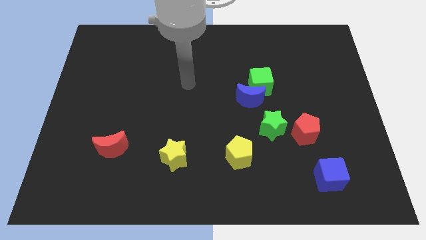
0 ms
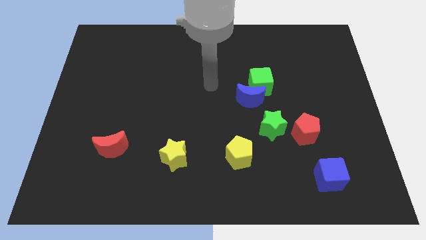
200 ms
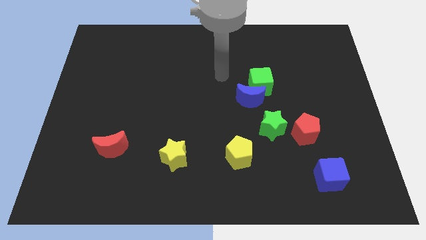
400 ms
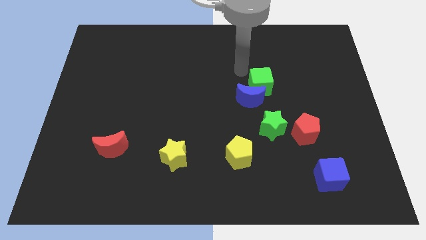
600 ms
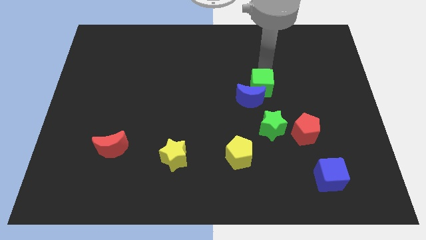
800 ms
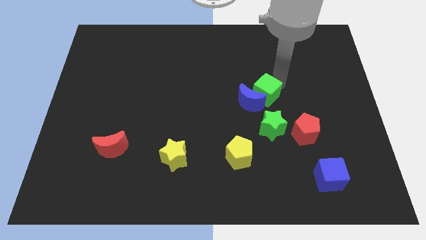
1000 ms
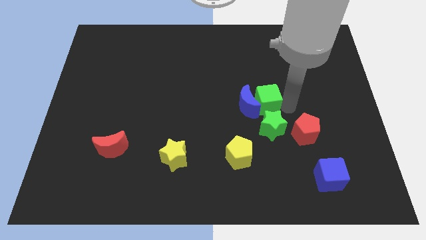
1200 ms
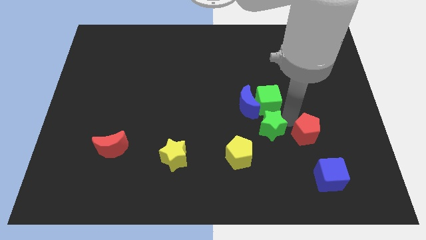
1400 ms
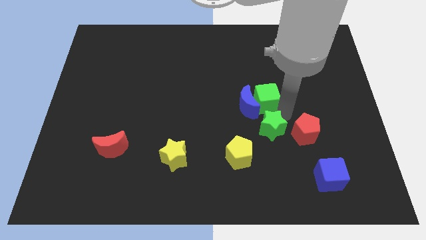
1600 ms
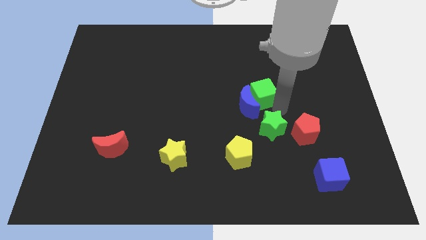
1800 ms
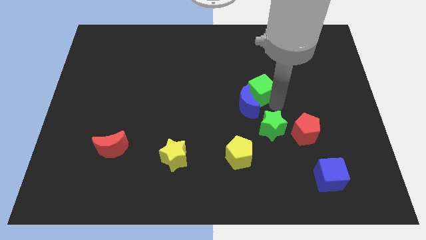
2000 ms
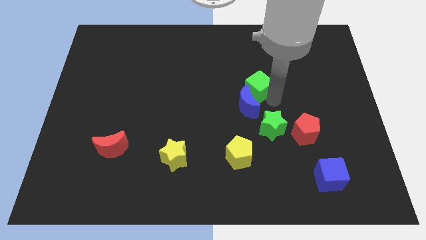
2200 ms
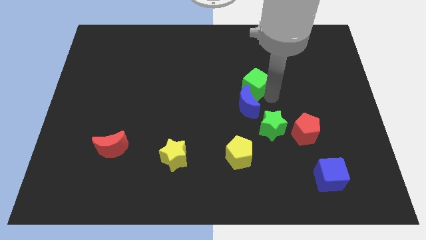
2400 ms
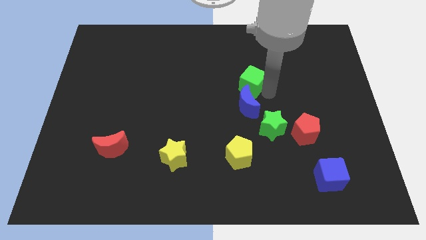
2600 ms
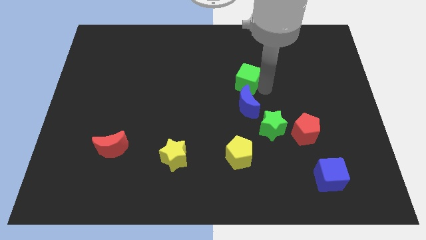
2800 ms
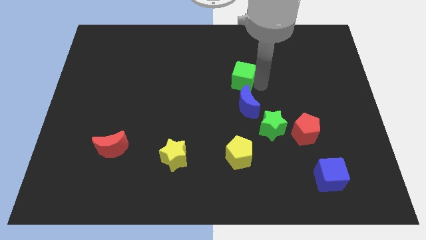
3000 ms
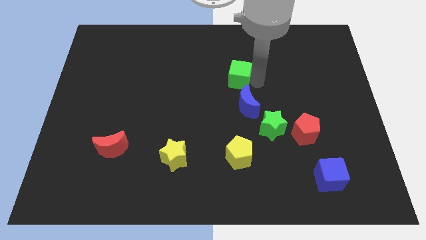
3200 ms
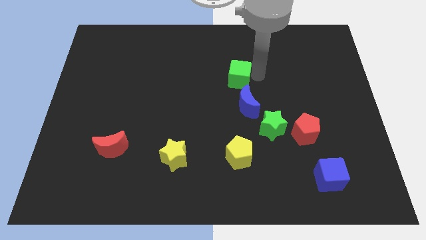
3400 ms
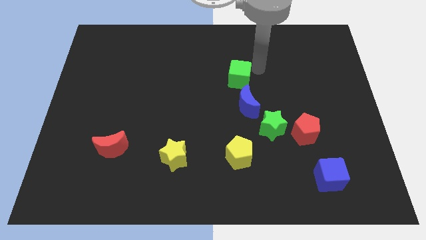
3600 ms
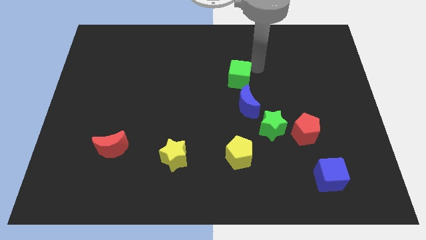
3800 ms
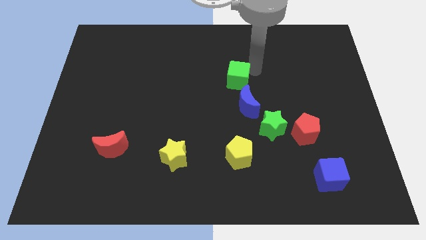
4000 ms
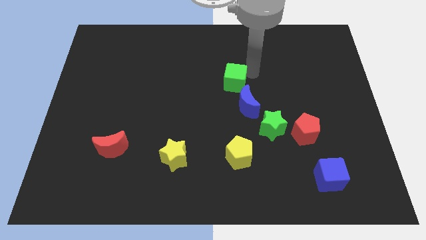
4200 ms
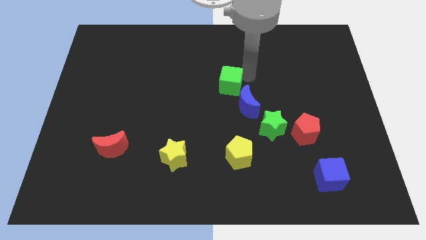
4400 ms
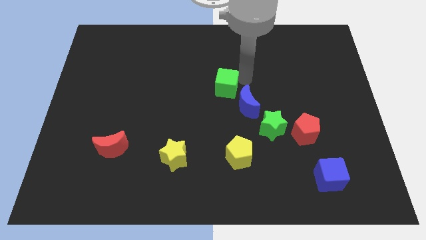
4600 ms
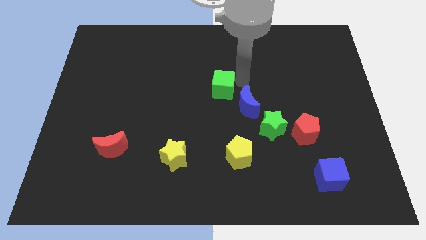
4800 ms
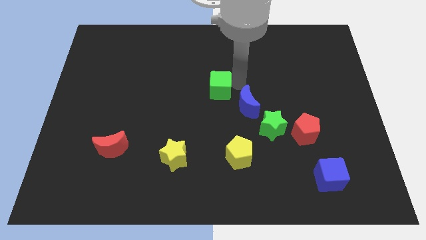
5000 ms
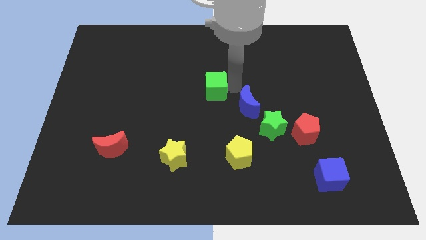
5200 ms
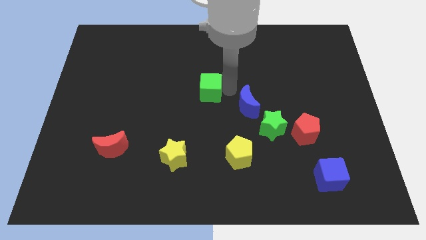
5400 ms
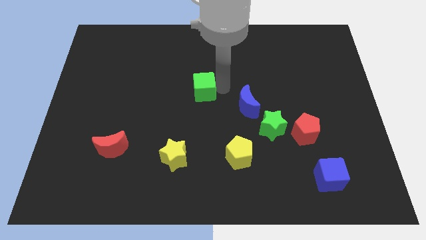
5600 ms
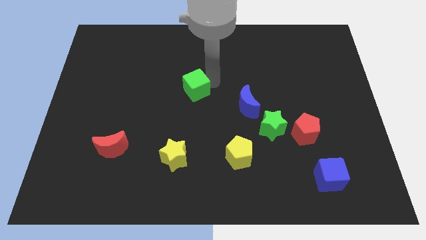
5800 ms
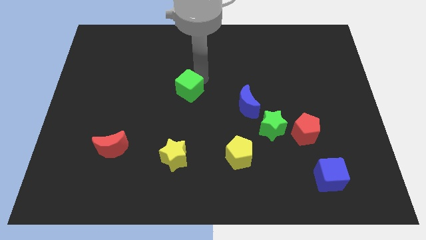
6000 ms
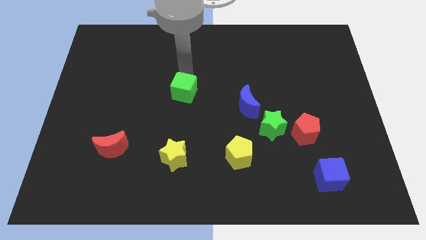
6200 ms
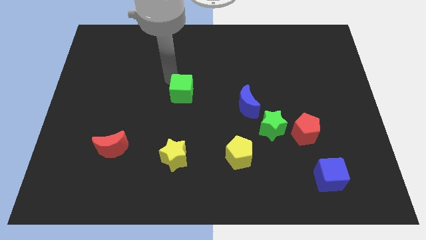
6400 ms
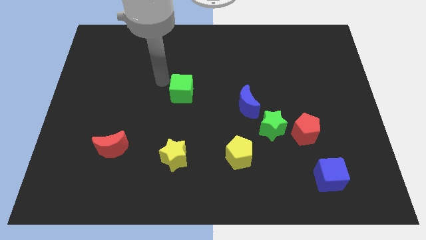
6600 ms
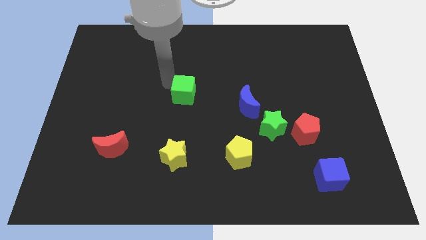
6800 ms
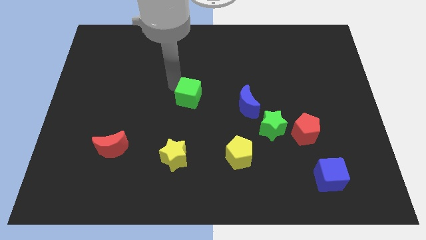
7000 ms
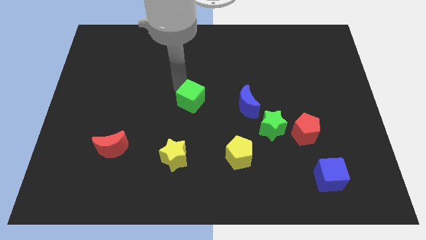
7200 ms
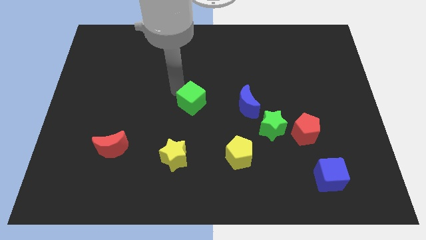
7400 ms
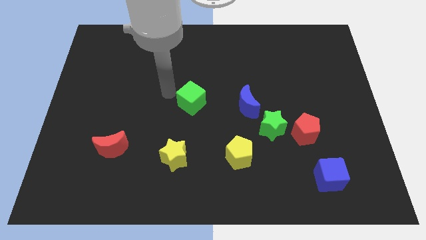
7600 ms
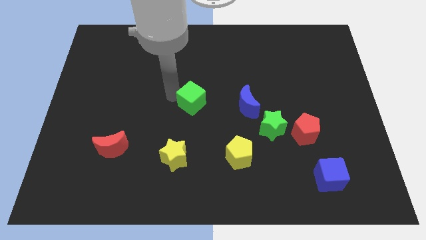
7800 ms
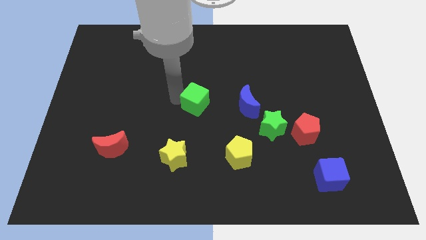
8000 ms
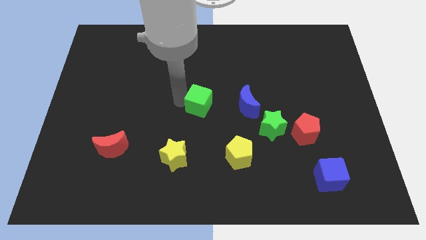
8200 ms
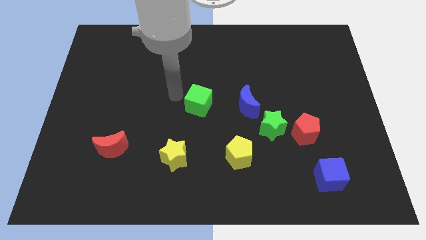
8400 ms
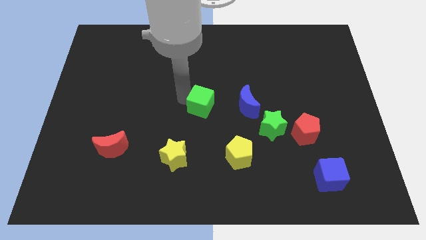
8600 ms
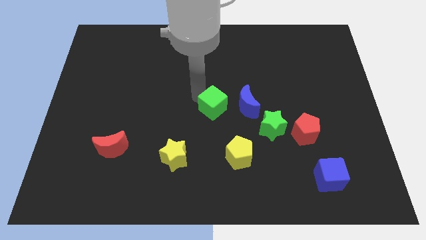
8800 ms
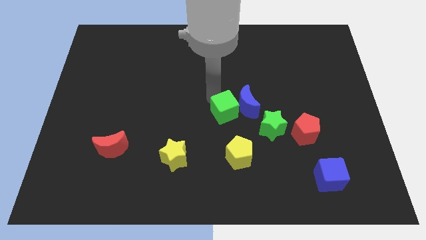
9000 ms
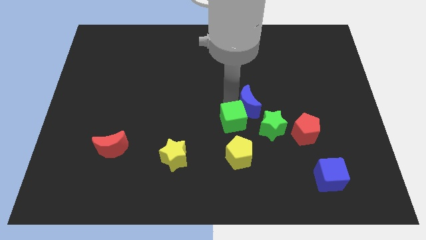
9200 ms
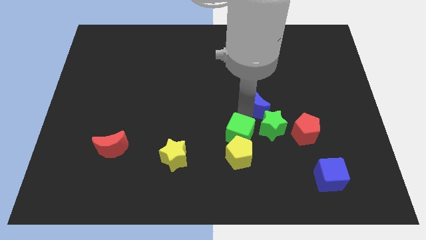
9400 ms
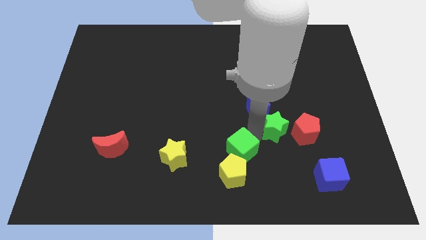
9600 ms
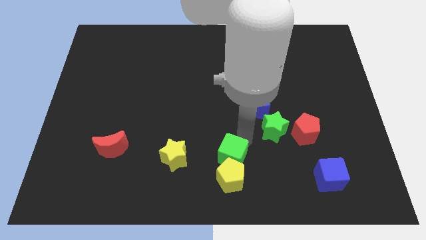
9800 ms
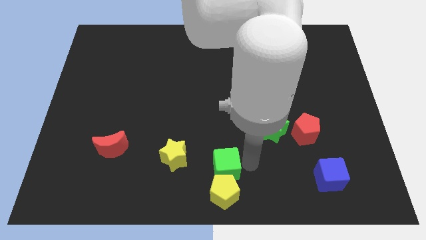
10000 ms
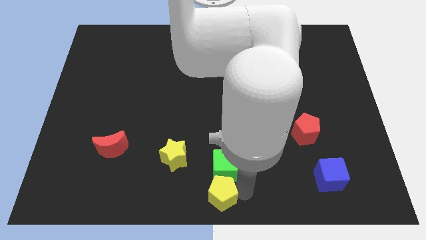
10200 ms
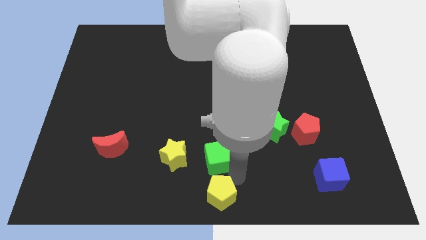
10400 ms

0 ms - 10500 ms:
push the green cube down and to the left

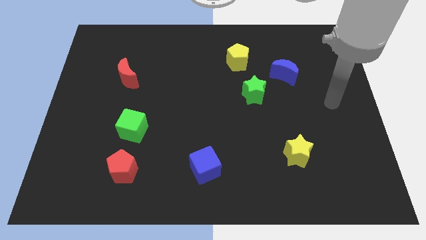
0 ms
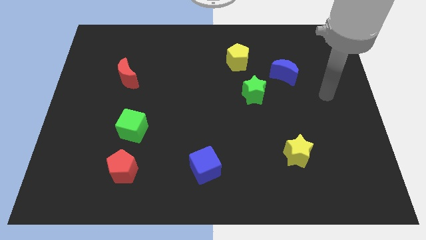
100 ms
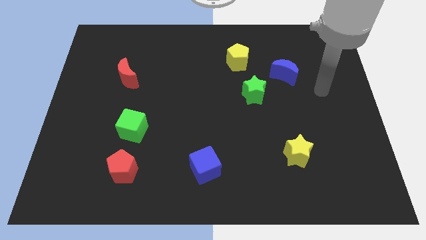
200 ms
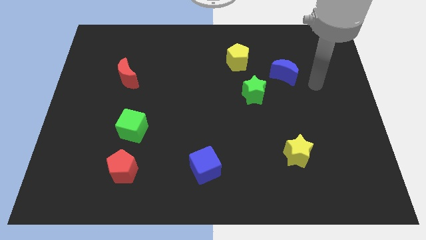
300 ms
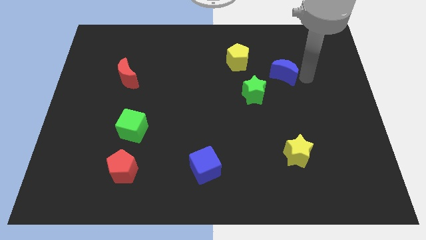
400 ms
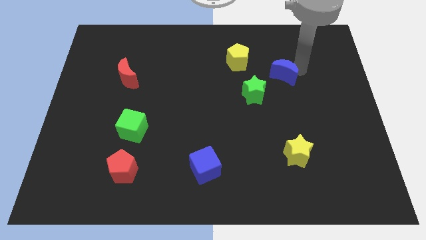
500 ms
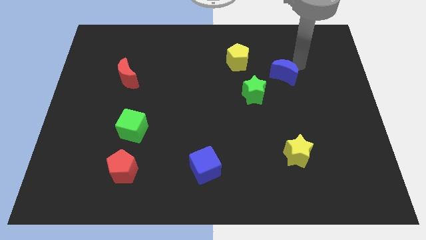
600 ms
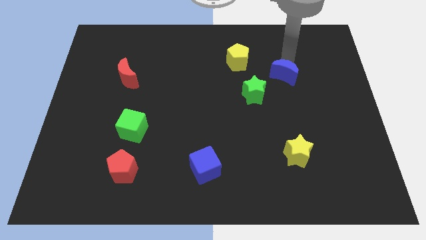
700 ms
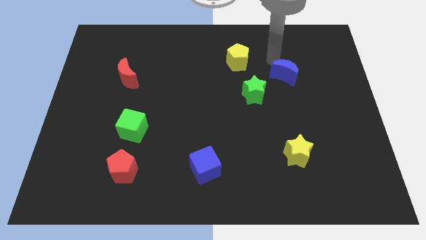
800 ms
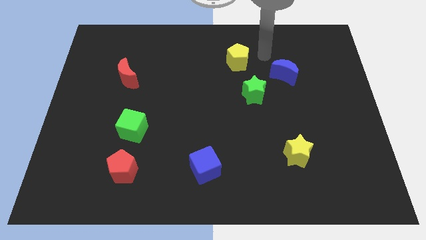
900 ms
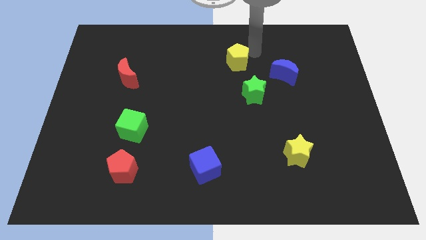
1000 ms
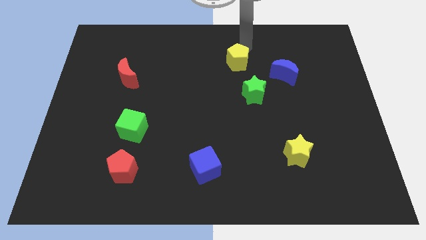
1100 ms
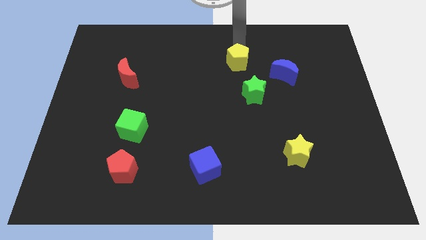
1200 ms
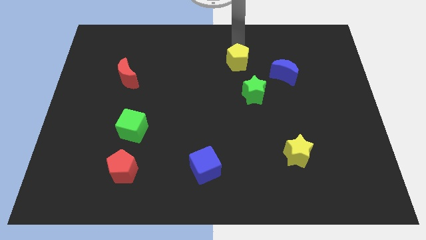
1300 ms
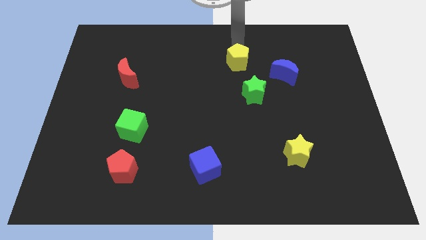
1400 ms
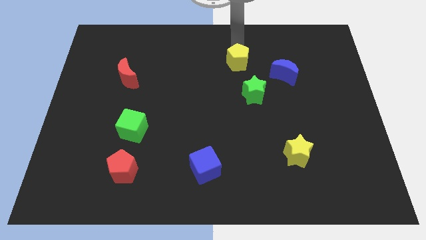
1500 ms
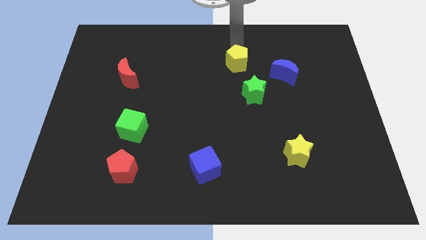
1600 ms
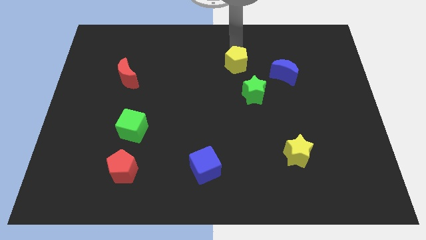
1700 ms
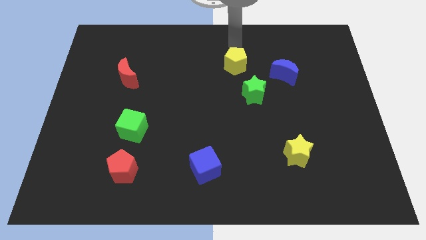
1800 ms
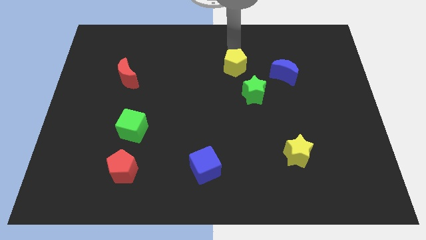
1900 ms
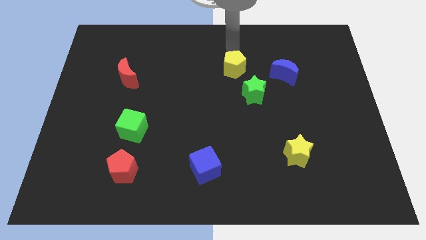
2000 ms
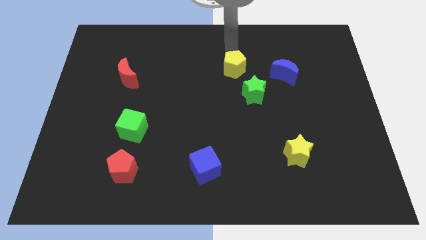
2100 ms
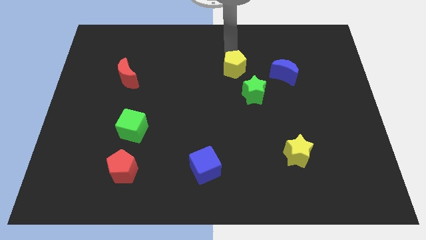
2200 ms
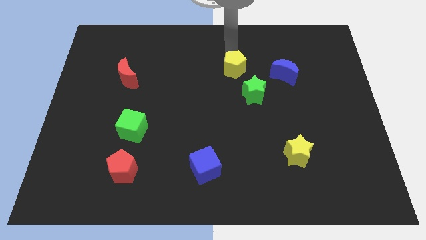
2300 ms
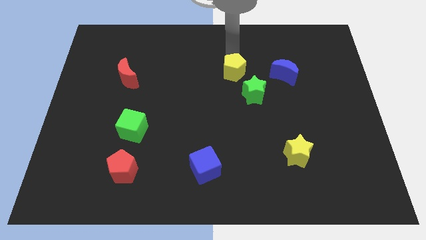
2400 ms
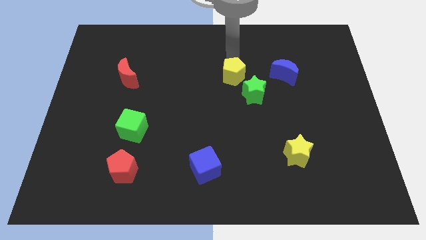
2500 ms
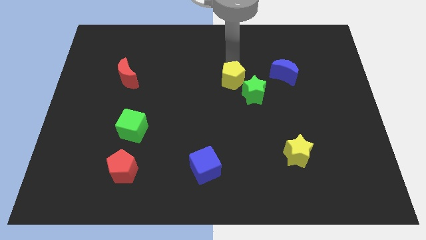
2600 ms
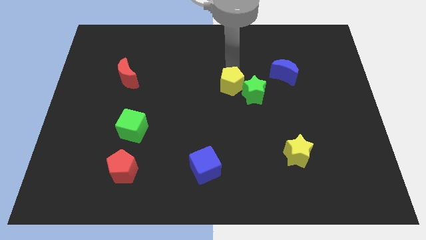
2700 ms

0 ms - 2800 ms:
move the yellow pentagon downwards slightly
